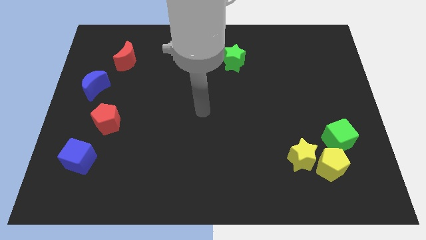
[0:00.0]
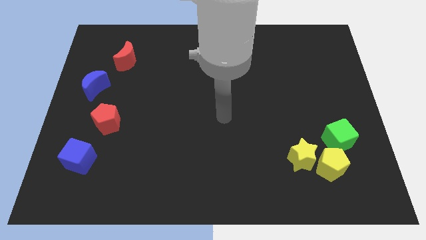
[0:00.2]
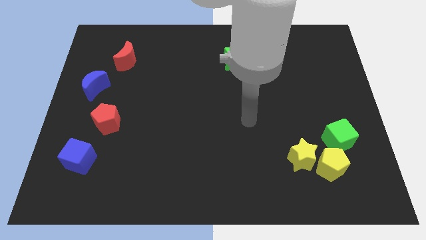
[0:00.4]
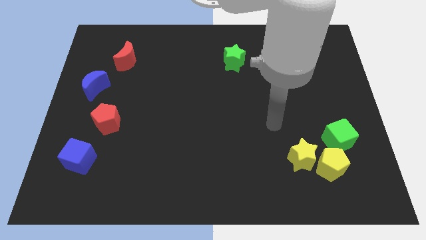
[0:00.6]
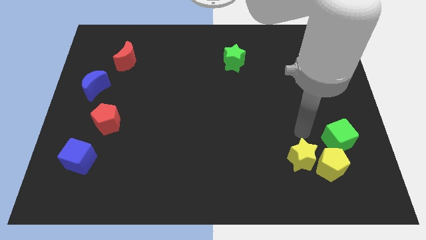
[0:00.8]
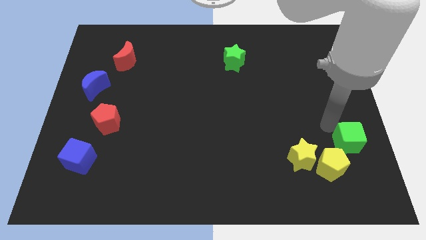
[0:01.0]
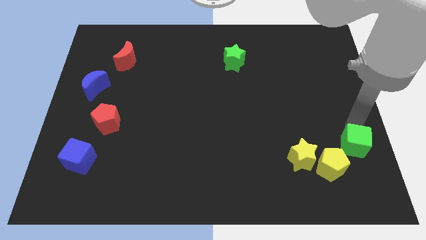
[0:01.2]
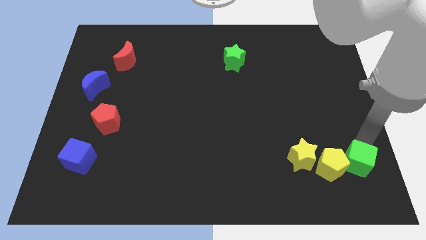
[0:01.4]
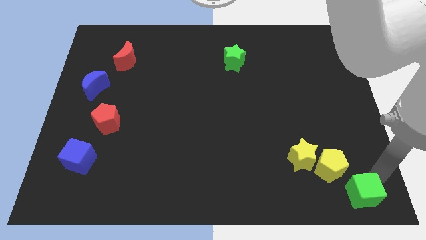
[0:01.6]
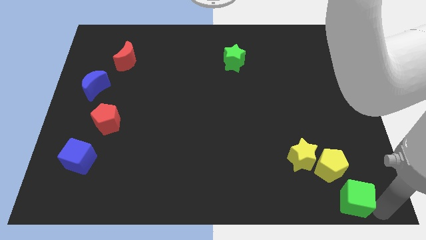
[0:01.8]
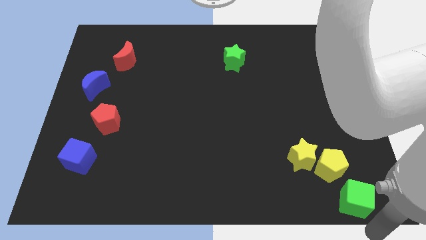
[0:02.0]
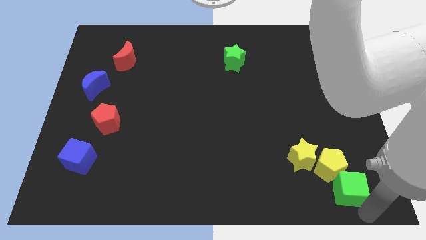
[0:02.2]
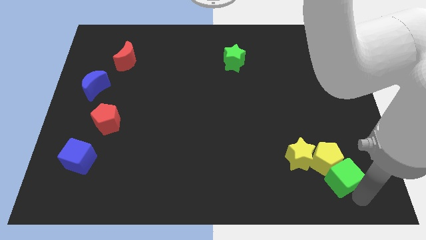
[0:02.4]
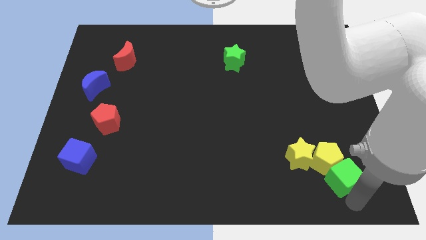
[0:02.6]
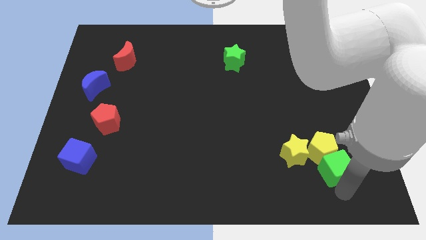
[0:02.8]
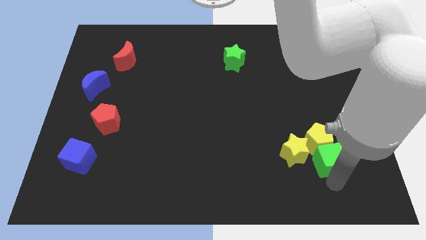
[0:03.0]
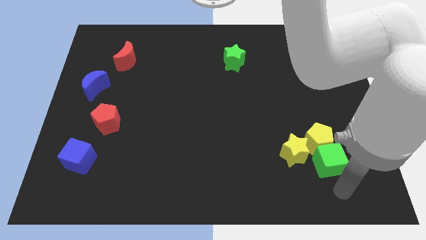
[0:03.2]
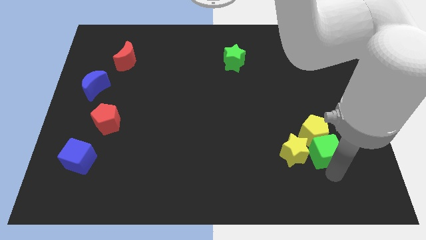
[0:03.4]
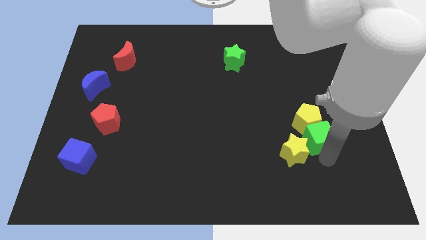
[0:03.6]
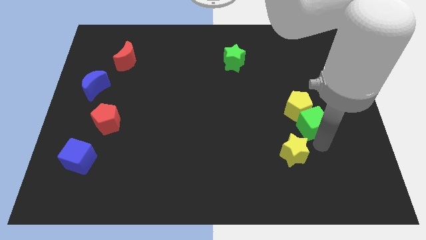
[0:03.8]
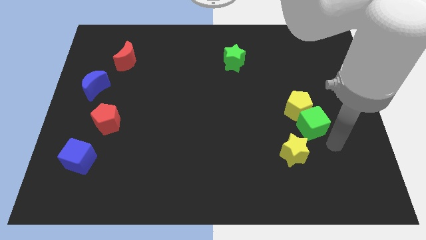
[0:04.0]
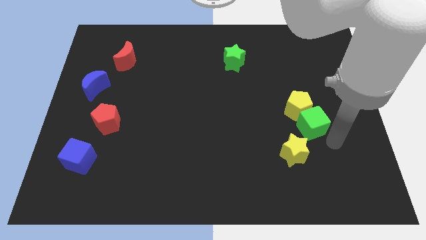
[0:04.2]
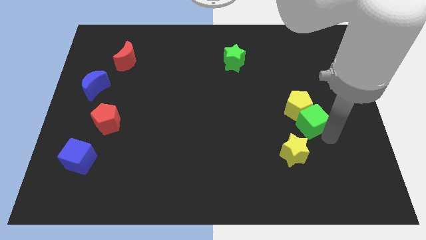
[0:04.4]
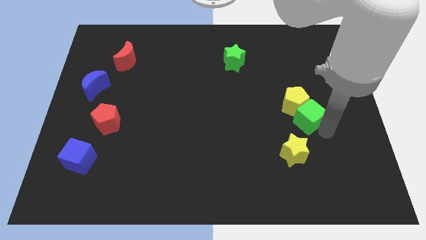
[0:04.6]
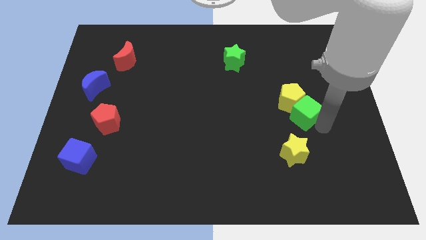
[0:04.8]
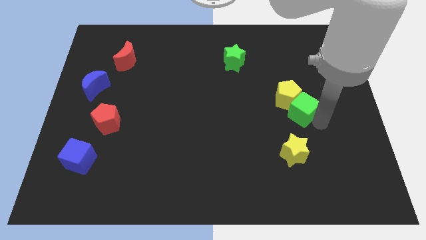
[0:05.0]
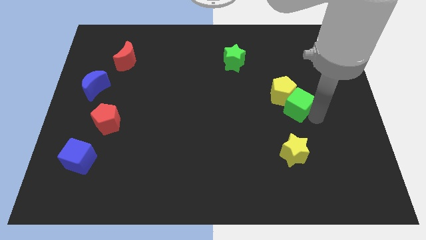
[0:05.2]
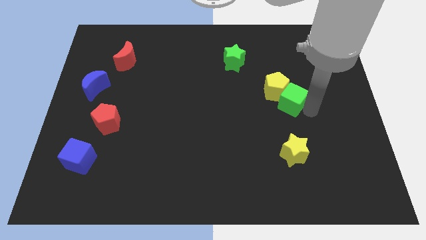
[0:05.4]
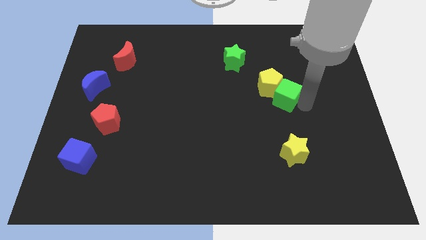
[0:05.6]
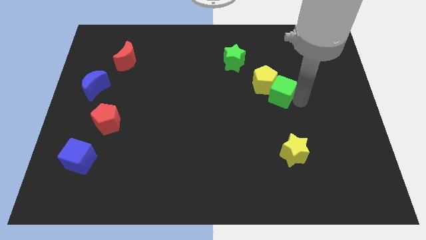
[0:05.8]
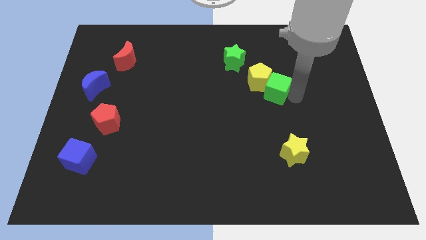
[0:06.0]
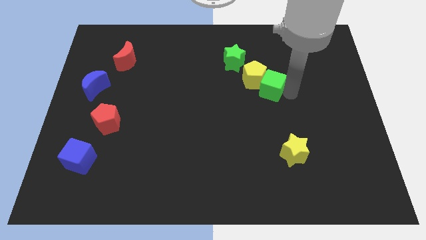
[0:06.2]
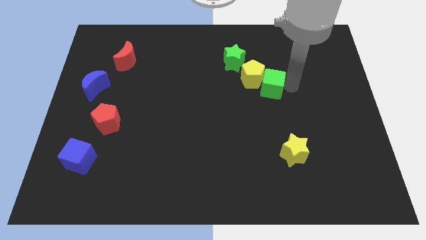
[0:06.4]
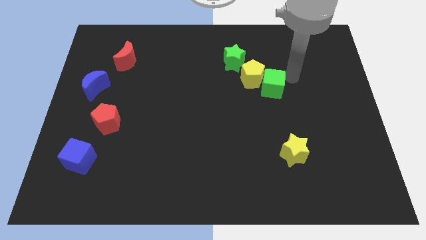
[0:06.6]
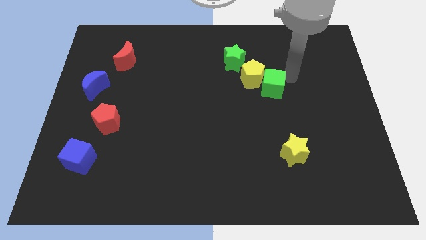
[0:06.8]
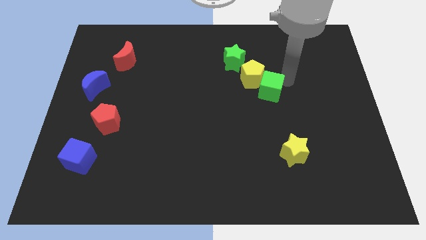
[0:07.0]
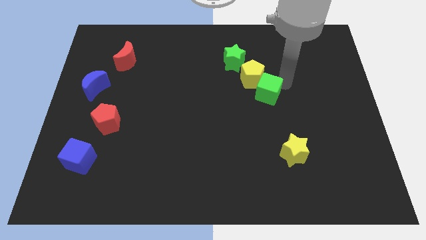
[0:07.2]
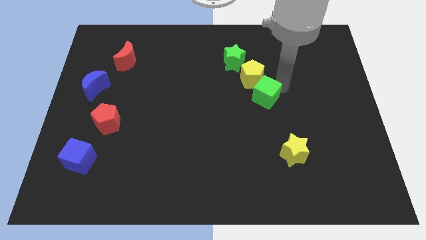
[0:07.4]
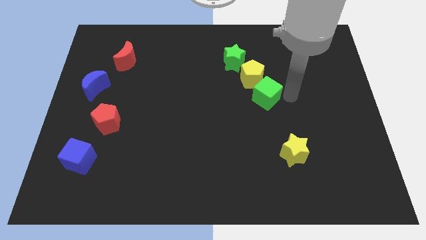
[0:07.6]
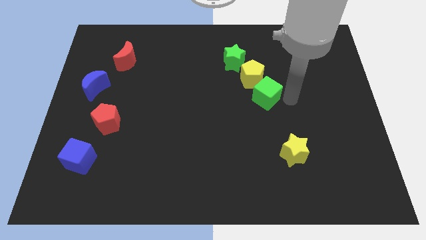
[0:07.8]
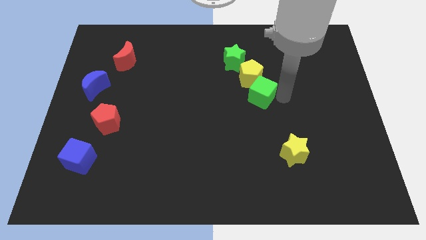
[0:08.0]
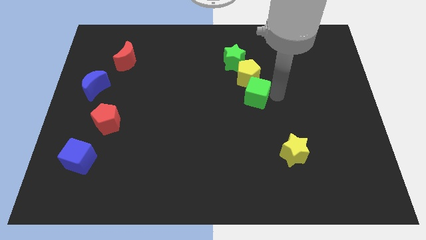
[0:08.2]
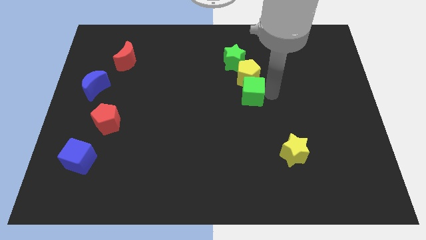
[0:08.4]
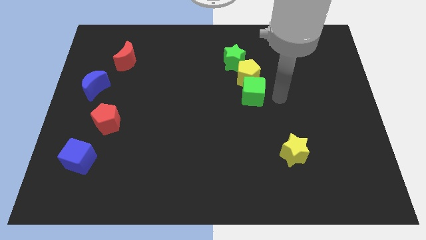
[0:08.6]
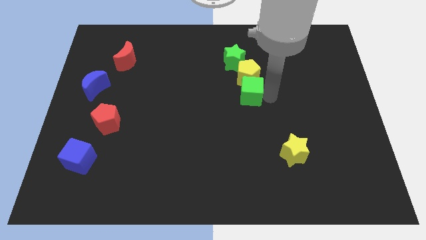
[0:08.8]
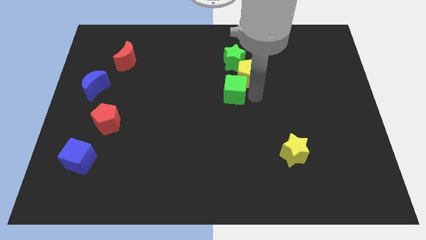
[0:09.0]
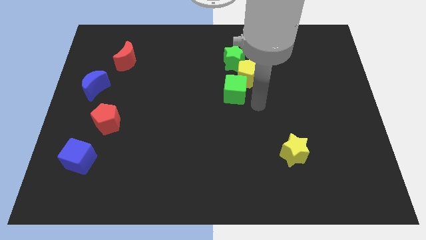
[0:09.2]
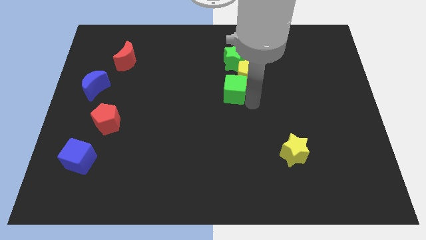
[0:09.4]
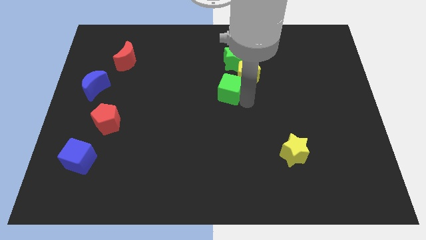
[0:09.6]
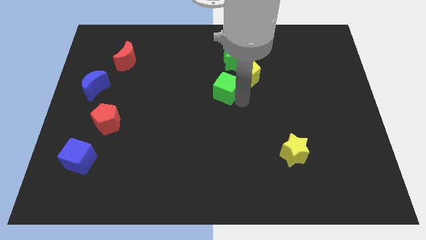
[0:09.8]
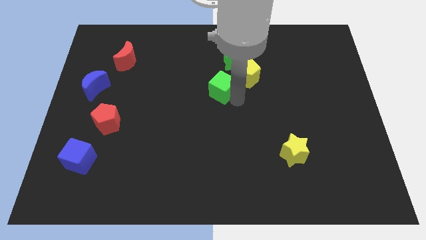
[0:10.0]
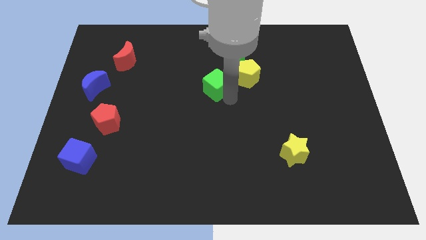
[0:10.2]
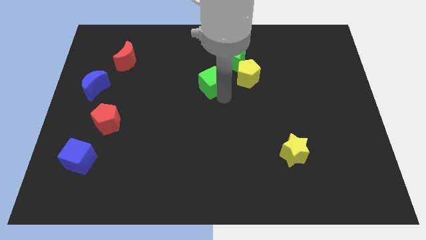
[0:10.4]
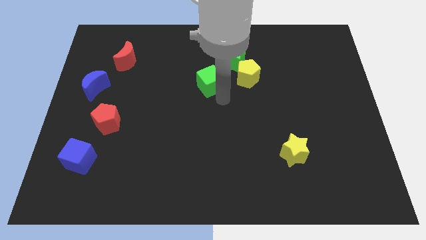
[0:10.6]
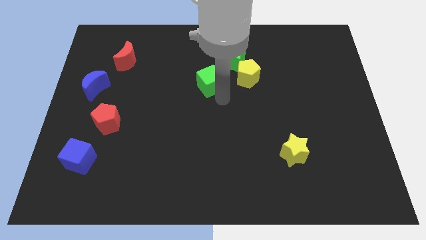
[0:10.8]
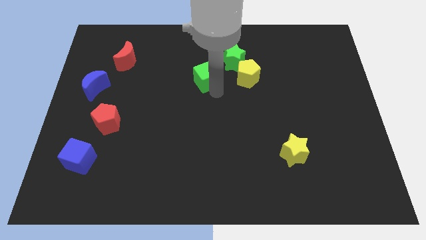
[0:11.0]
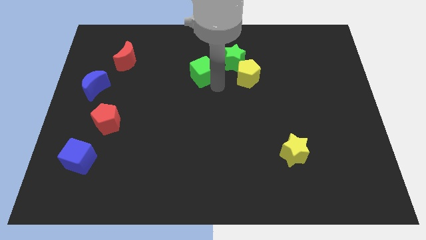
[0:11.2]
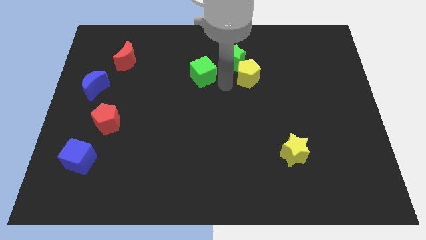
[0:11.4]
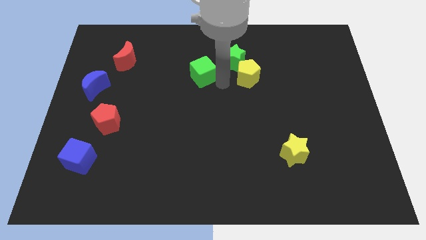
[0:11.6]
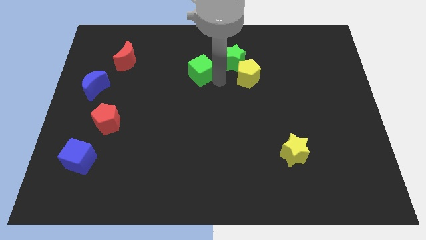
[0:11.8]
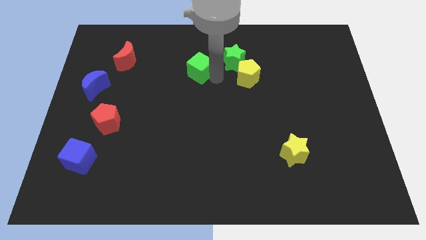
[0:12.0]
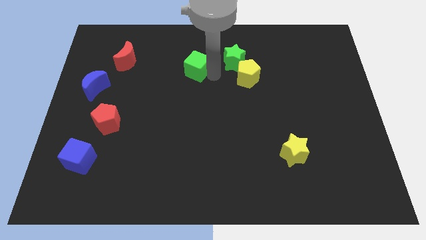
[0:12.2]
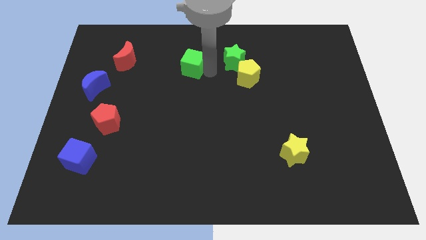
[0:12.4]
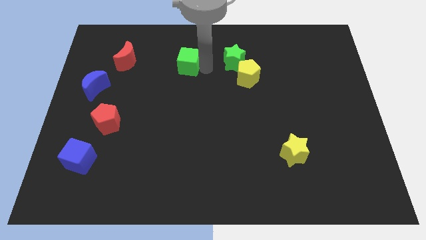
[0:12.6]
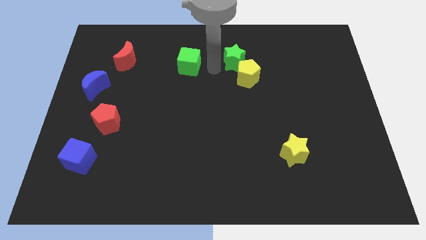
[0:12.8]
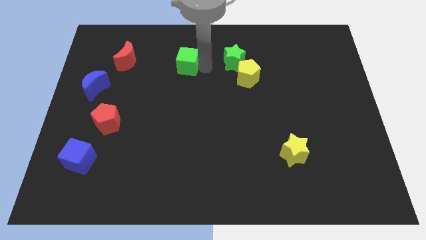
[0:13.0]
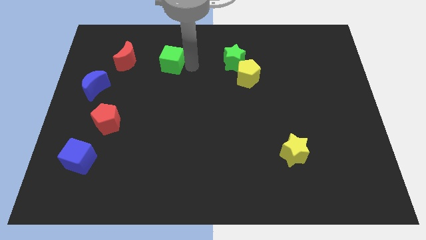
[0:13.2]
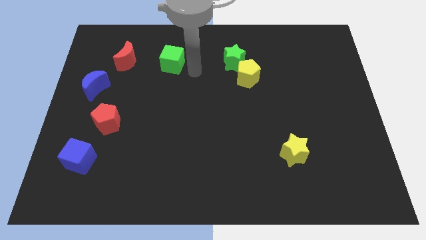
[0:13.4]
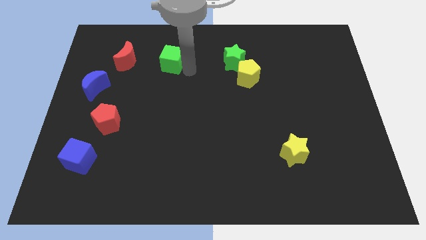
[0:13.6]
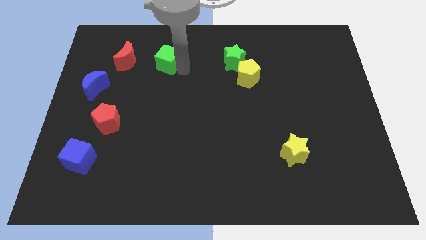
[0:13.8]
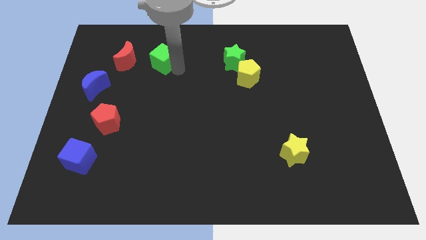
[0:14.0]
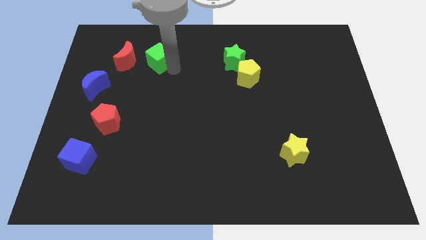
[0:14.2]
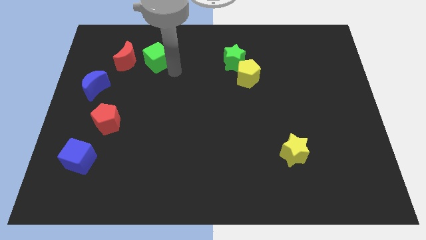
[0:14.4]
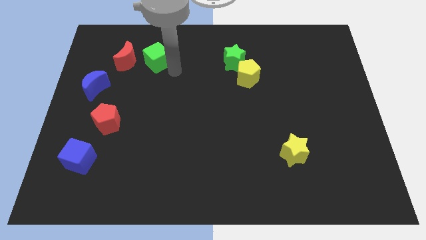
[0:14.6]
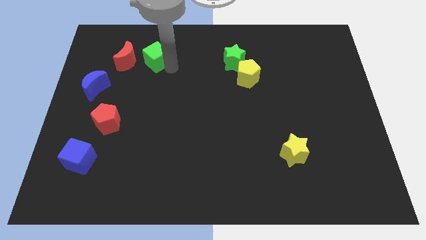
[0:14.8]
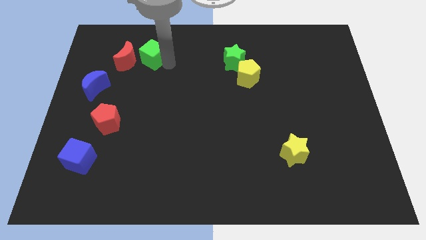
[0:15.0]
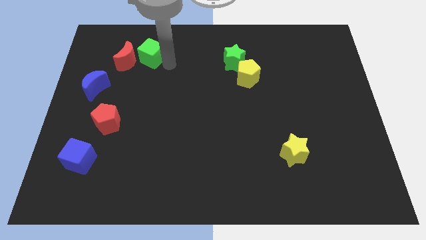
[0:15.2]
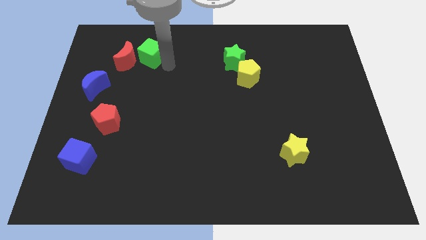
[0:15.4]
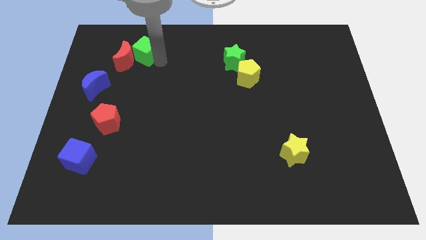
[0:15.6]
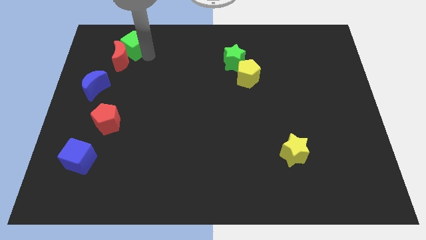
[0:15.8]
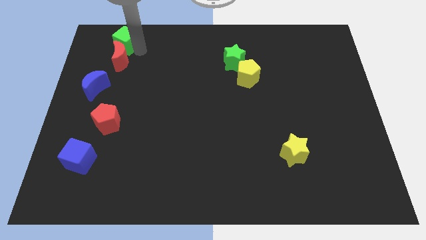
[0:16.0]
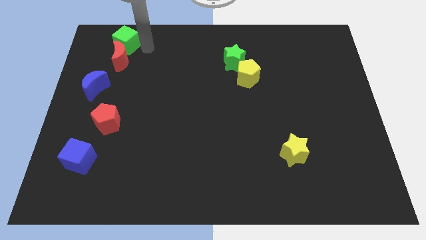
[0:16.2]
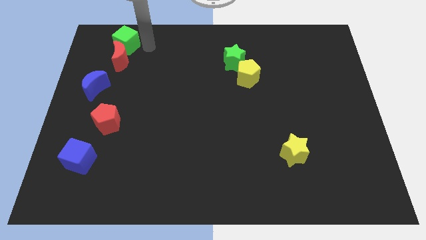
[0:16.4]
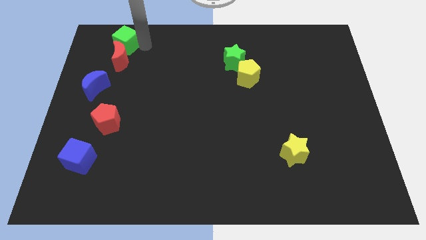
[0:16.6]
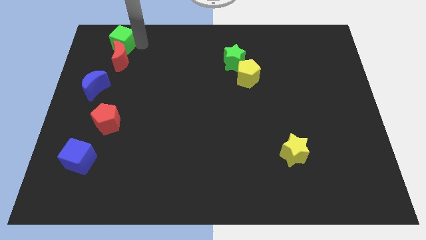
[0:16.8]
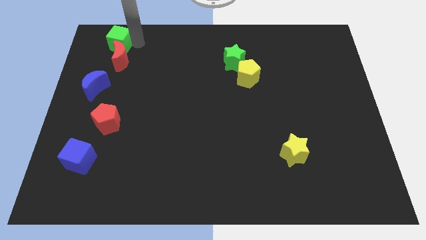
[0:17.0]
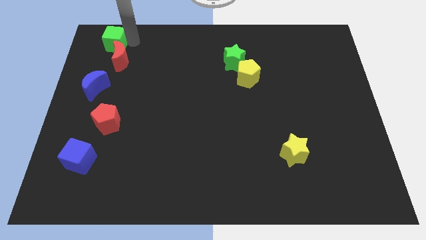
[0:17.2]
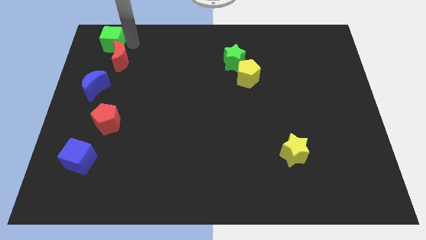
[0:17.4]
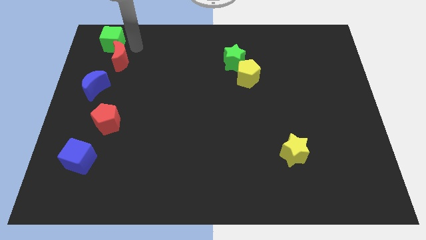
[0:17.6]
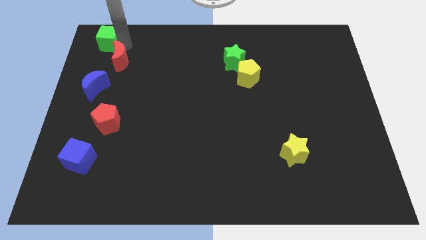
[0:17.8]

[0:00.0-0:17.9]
slide the green cube to the top left
